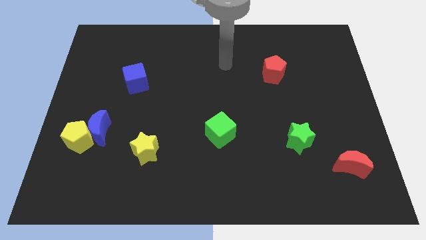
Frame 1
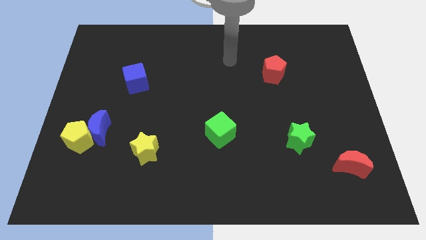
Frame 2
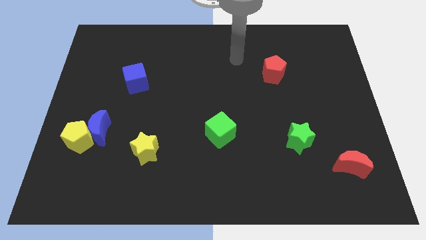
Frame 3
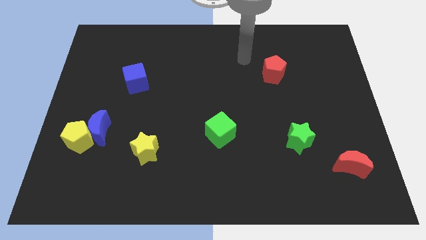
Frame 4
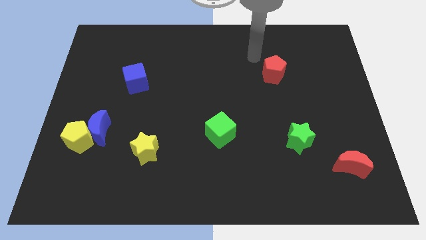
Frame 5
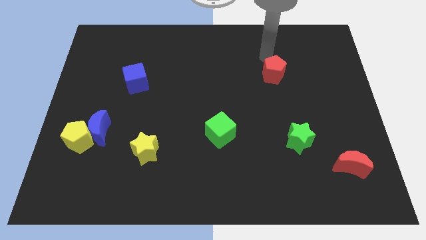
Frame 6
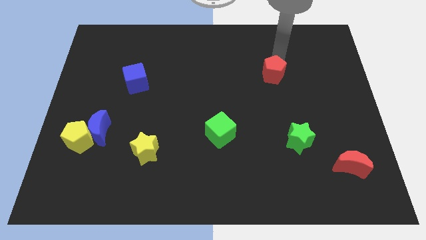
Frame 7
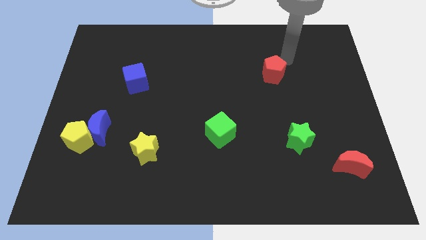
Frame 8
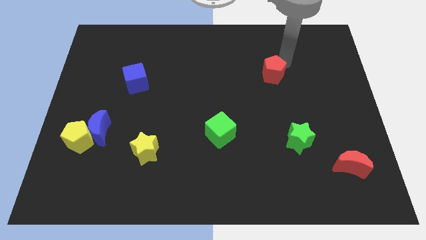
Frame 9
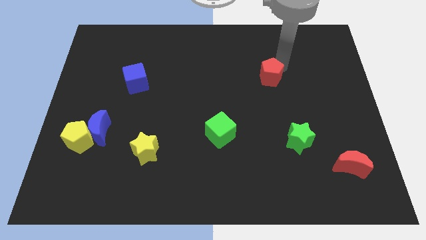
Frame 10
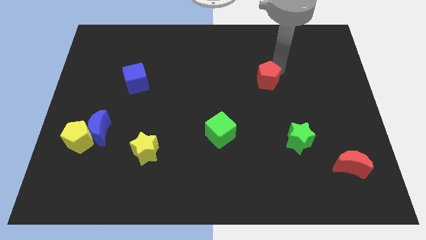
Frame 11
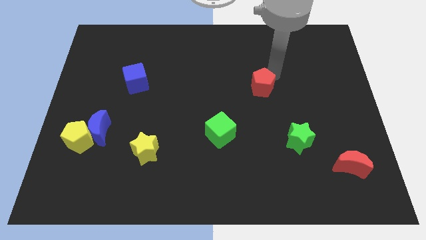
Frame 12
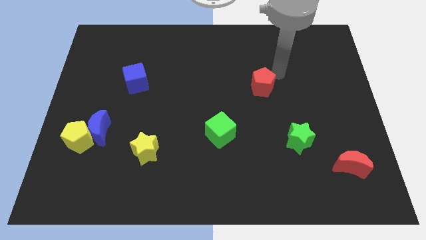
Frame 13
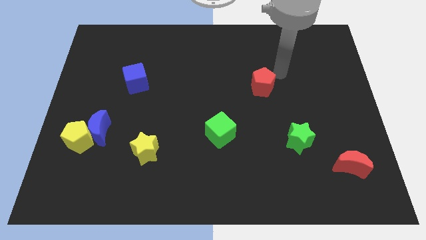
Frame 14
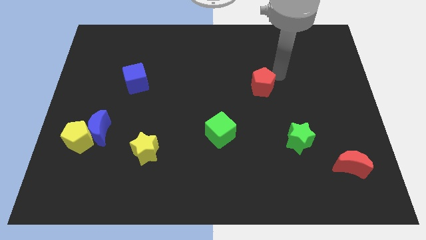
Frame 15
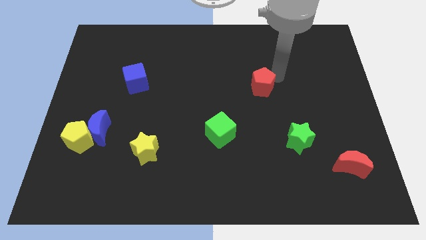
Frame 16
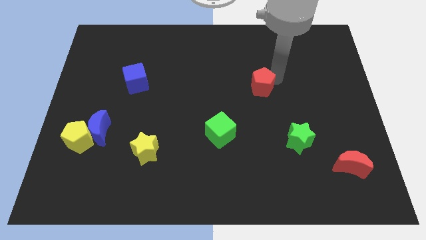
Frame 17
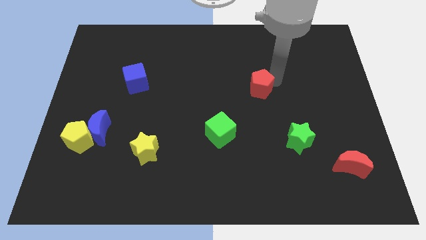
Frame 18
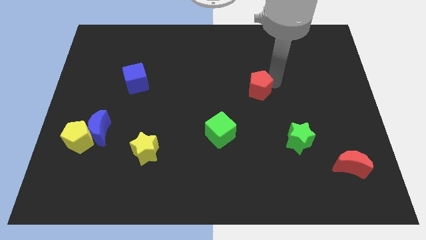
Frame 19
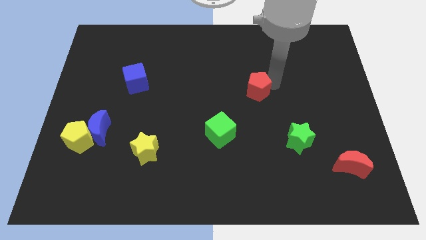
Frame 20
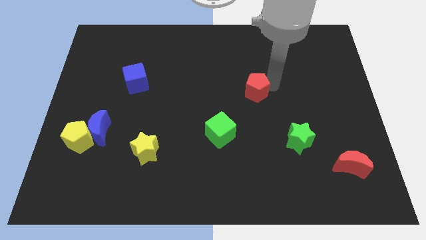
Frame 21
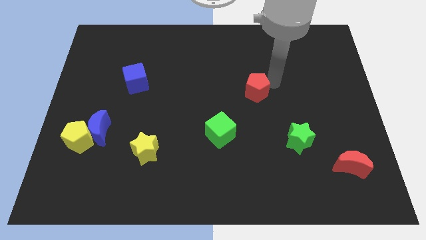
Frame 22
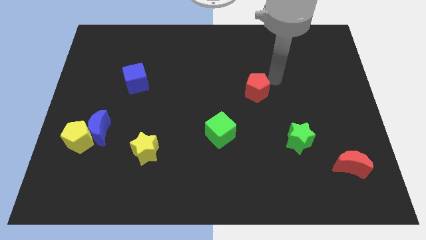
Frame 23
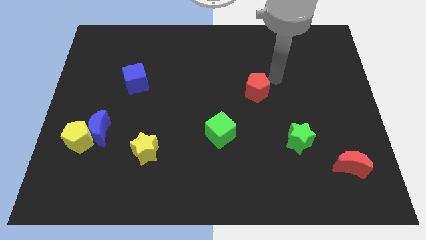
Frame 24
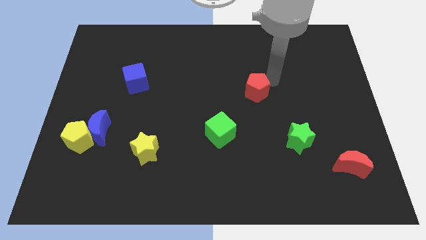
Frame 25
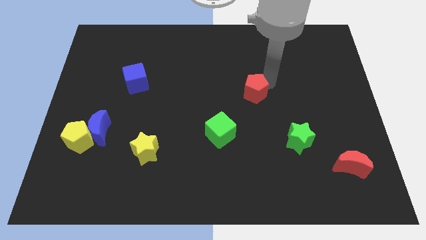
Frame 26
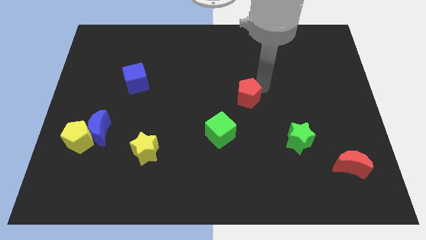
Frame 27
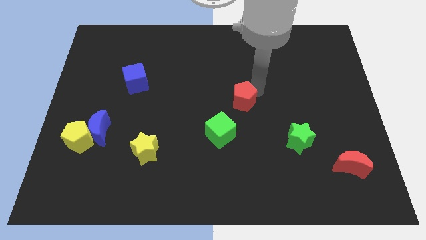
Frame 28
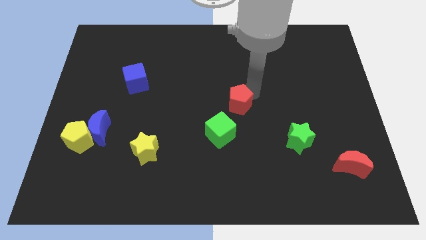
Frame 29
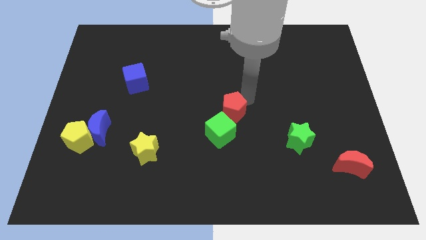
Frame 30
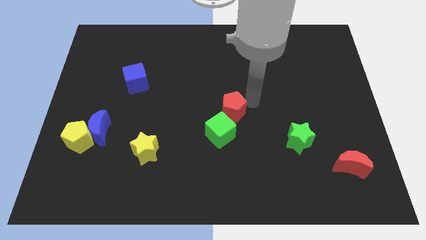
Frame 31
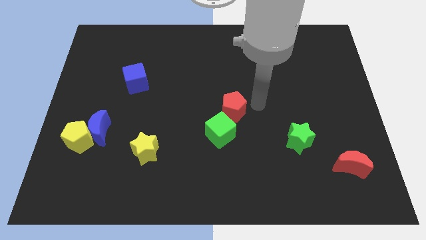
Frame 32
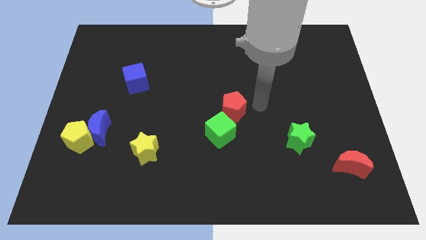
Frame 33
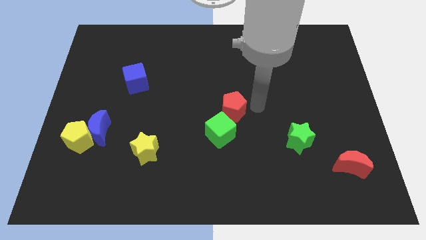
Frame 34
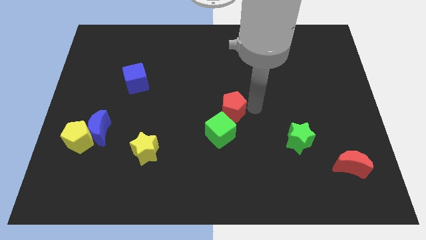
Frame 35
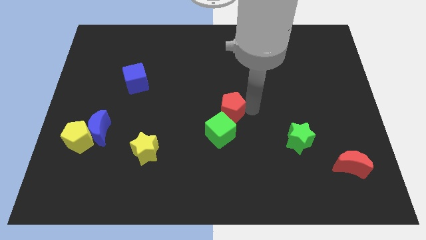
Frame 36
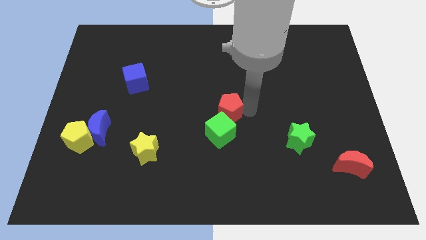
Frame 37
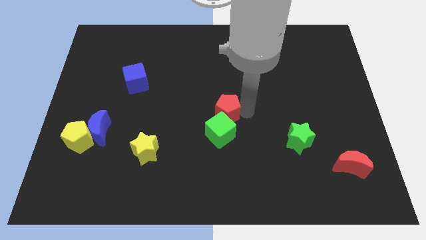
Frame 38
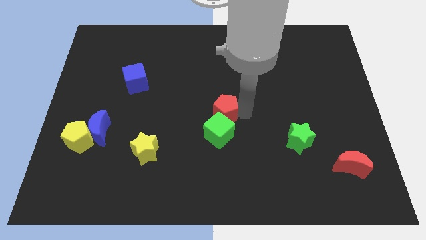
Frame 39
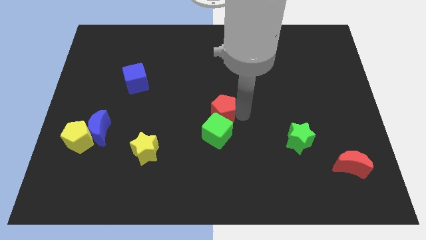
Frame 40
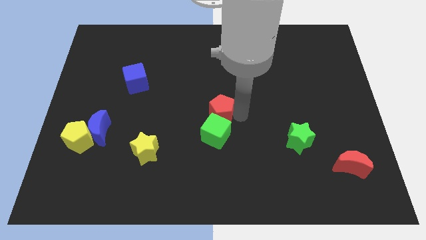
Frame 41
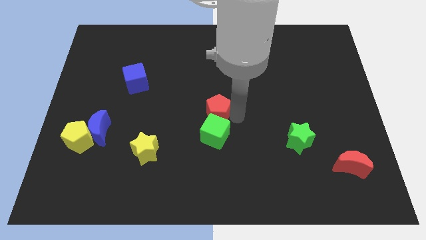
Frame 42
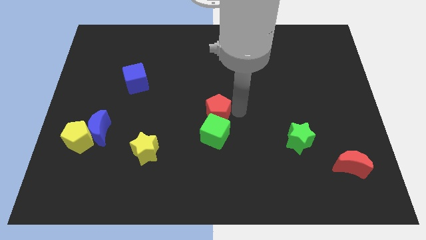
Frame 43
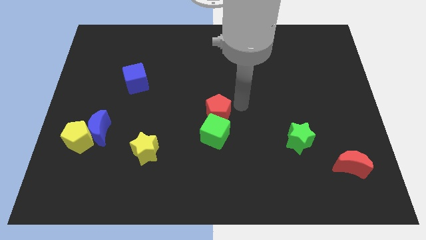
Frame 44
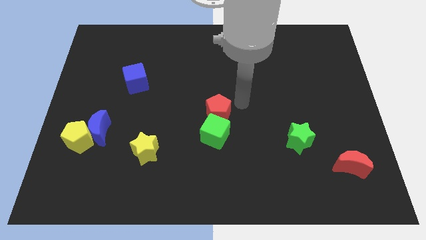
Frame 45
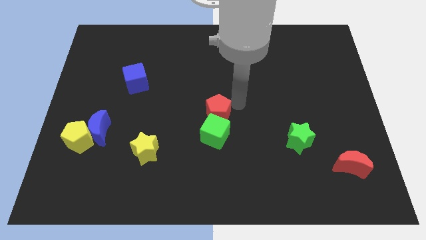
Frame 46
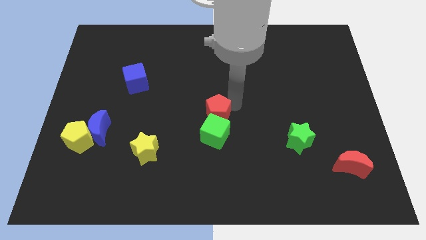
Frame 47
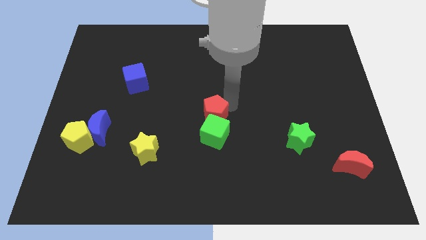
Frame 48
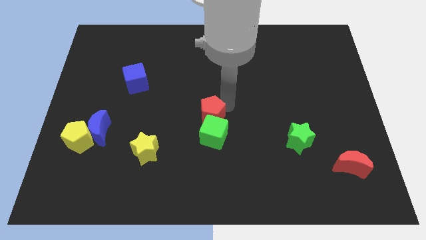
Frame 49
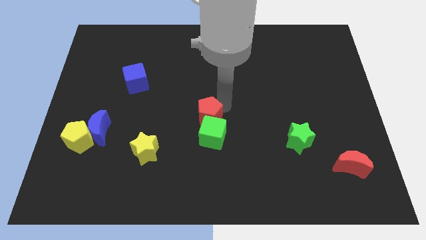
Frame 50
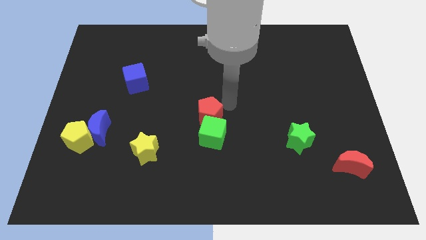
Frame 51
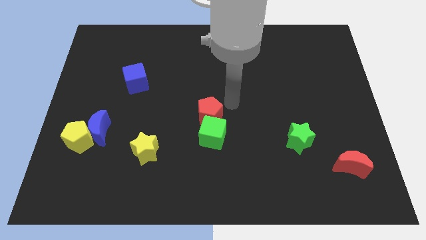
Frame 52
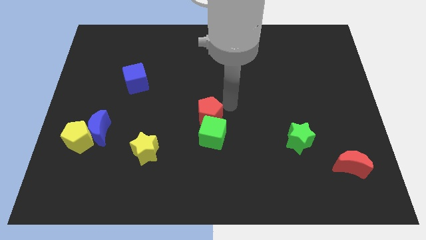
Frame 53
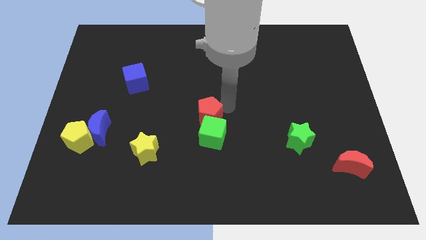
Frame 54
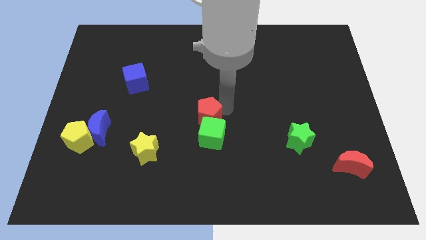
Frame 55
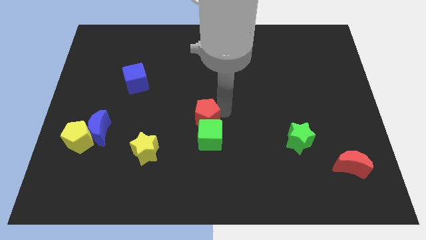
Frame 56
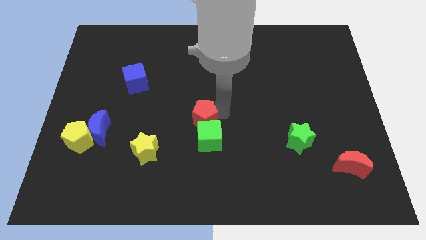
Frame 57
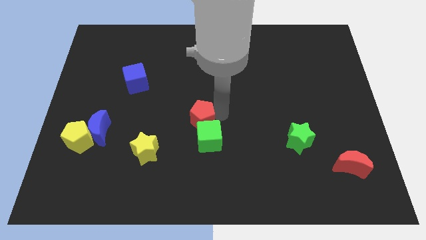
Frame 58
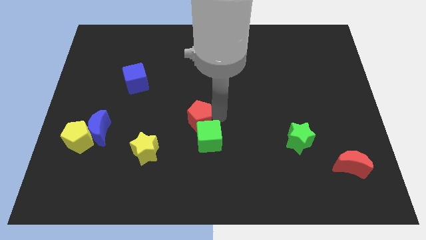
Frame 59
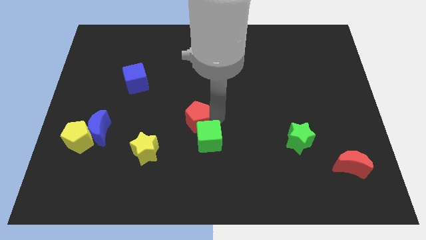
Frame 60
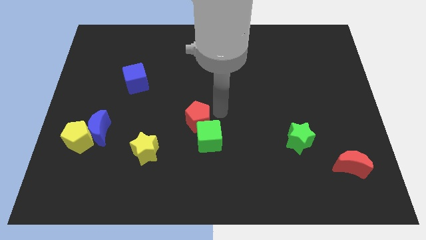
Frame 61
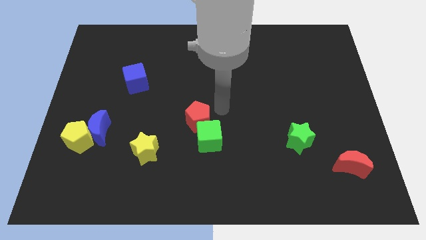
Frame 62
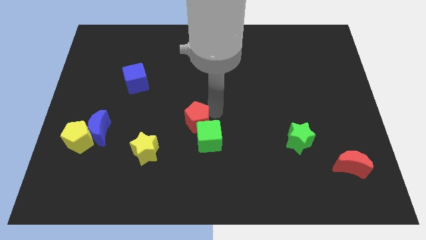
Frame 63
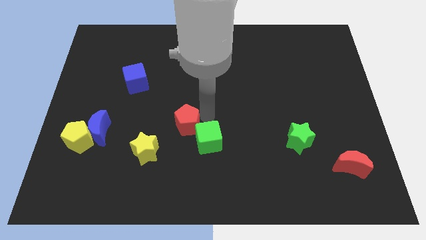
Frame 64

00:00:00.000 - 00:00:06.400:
push the red pentagon left of the green cube

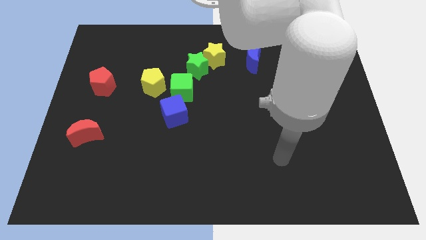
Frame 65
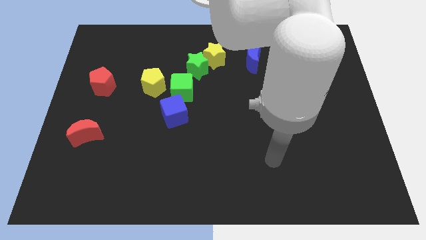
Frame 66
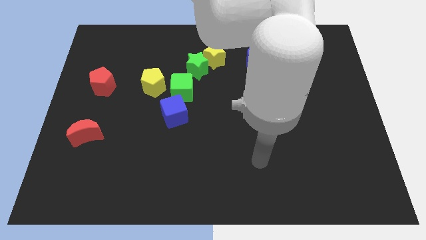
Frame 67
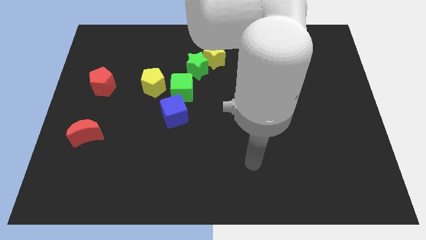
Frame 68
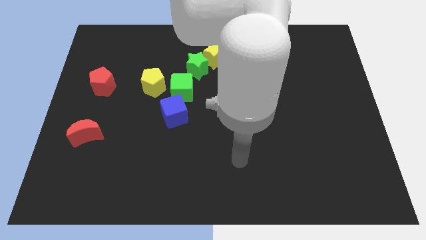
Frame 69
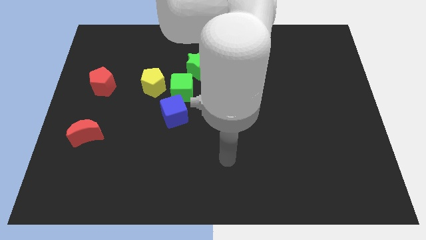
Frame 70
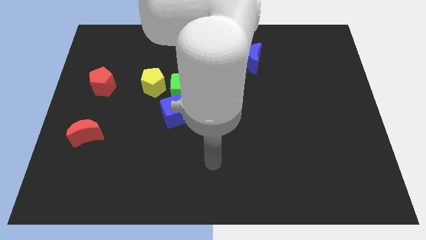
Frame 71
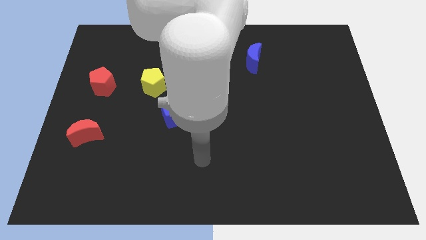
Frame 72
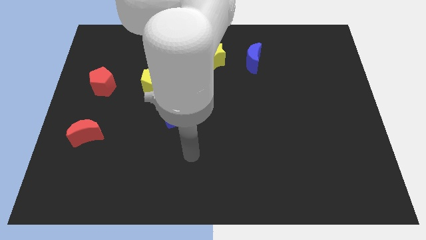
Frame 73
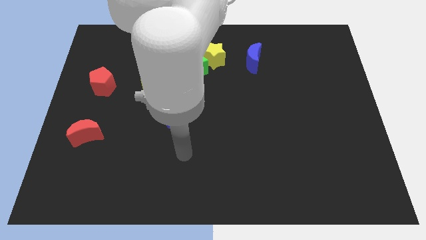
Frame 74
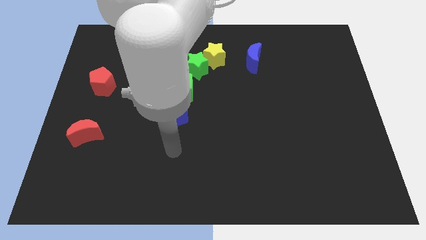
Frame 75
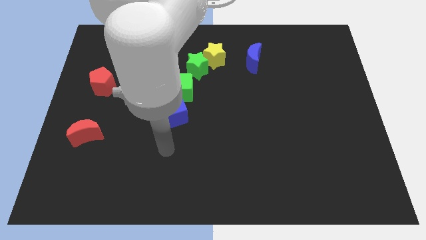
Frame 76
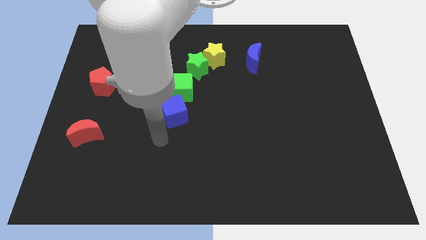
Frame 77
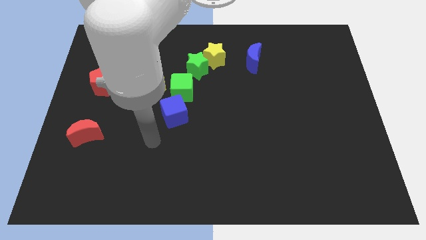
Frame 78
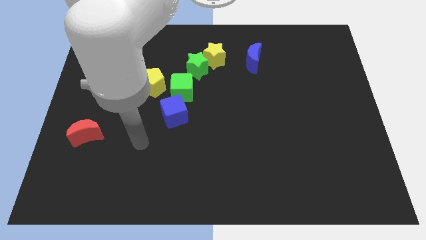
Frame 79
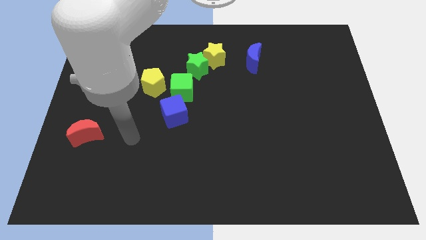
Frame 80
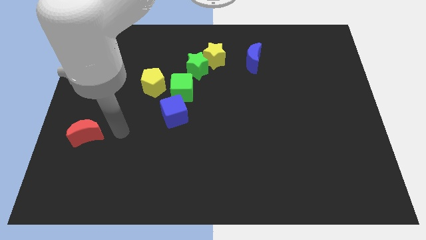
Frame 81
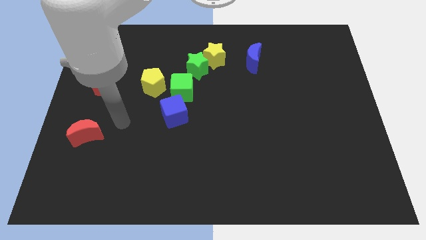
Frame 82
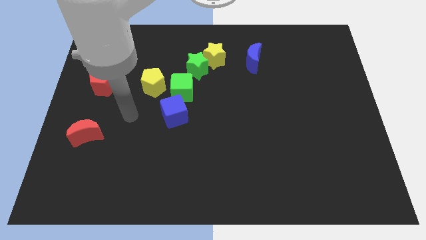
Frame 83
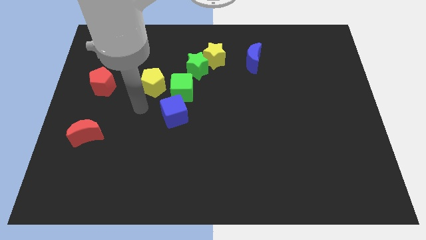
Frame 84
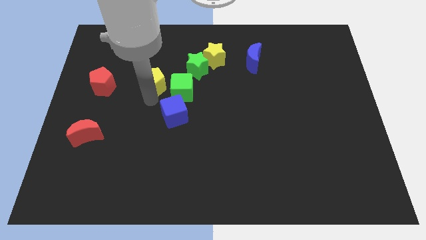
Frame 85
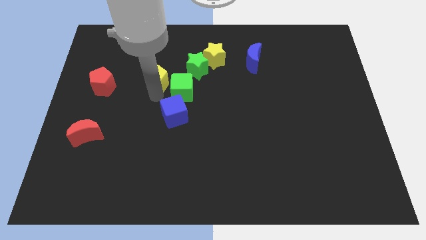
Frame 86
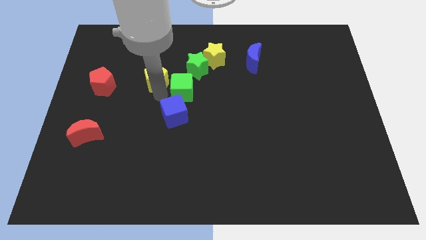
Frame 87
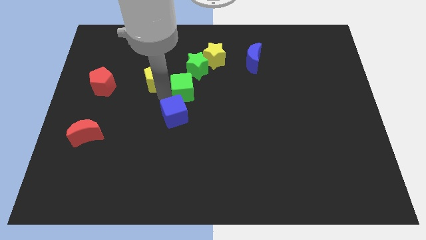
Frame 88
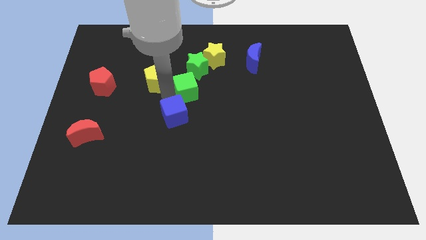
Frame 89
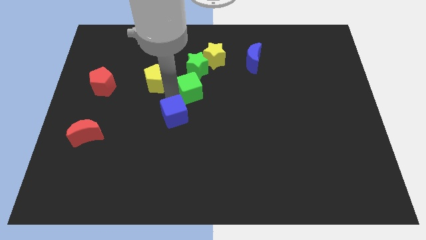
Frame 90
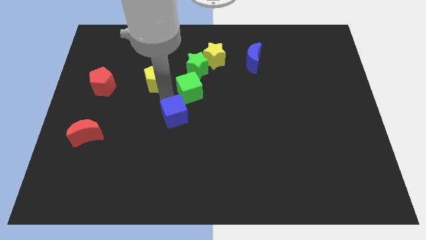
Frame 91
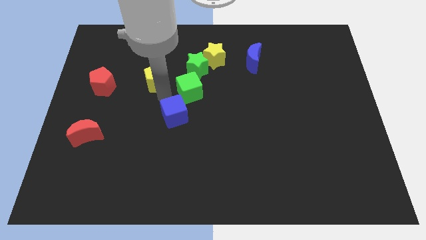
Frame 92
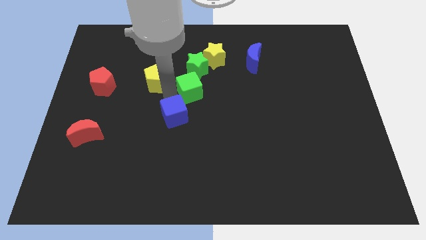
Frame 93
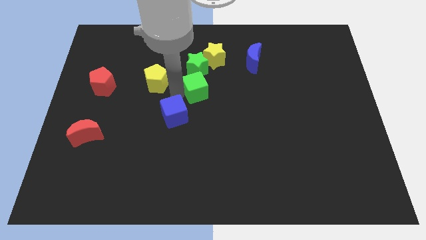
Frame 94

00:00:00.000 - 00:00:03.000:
move the green cube to the bottom right side of the green star
